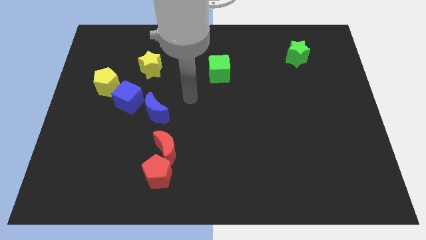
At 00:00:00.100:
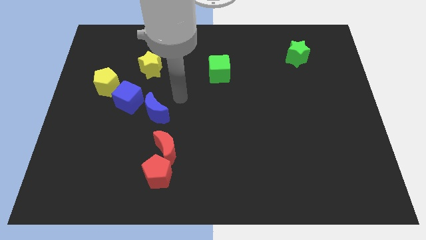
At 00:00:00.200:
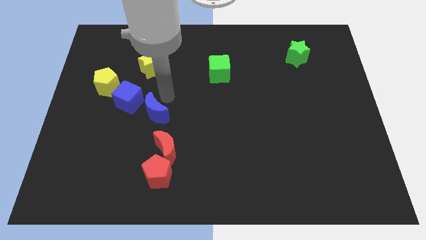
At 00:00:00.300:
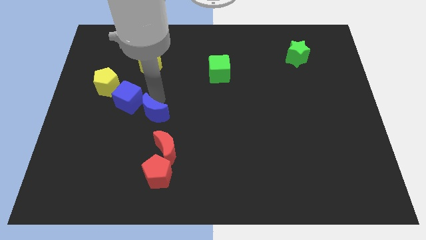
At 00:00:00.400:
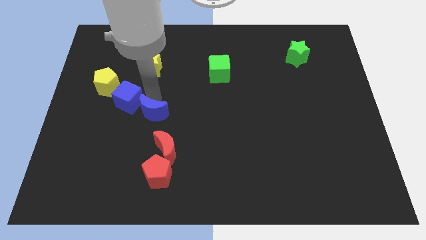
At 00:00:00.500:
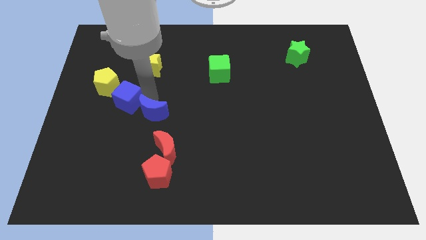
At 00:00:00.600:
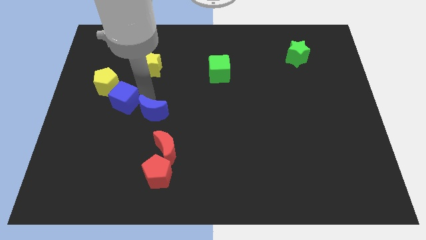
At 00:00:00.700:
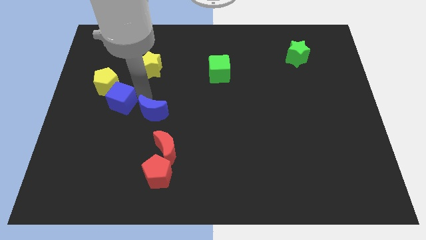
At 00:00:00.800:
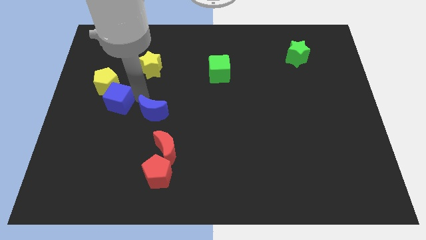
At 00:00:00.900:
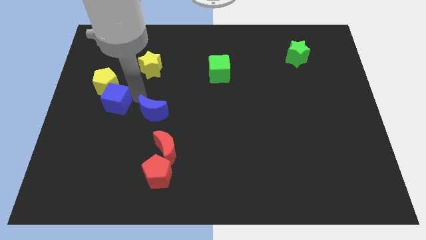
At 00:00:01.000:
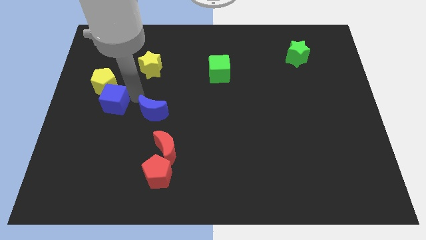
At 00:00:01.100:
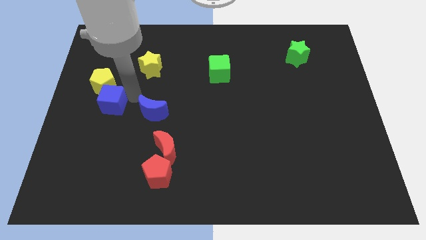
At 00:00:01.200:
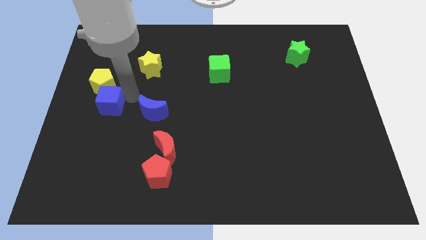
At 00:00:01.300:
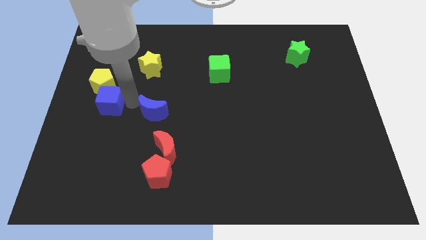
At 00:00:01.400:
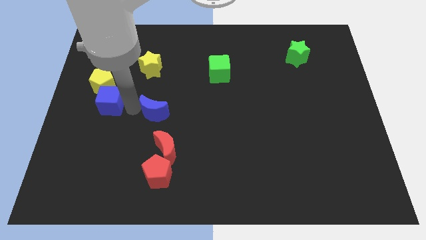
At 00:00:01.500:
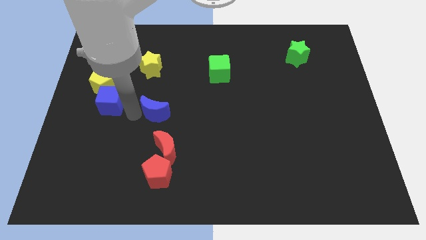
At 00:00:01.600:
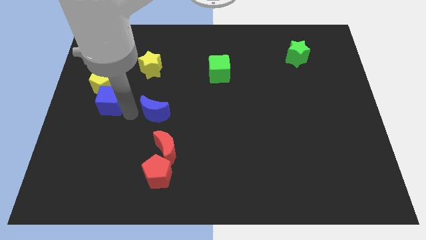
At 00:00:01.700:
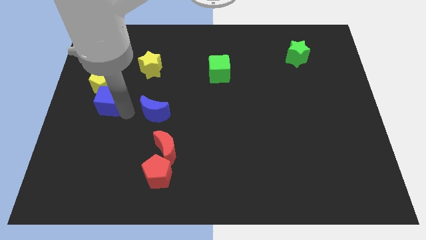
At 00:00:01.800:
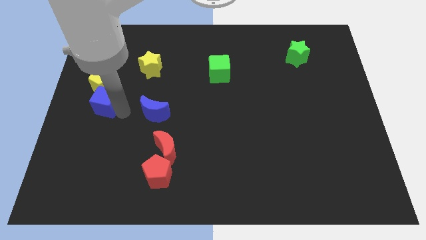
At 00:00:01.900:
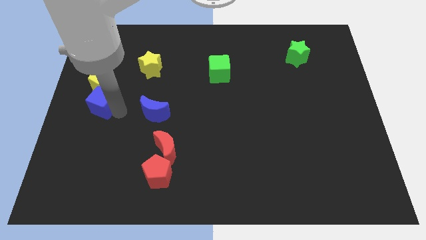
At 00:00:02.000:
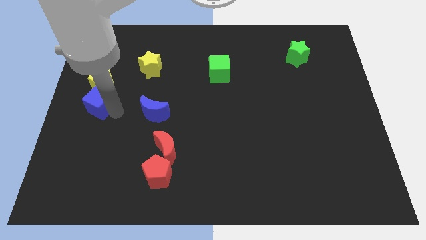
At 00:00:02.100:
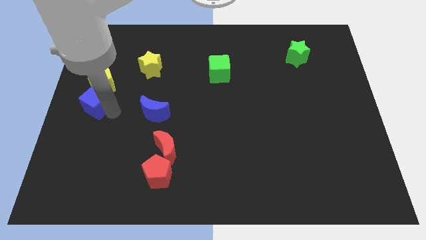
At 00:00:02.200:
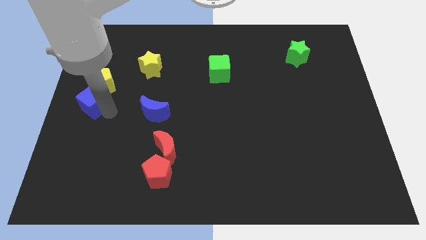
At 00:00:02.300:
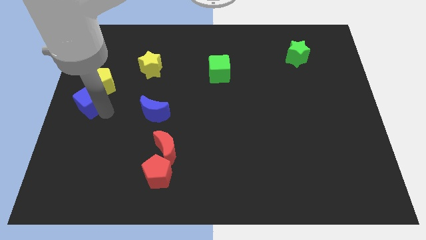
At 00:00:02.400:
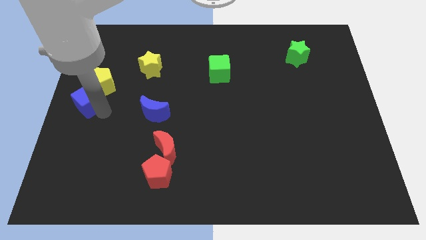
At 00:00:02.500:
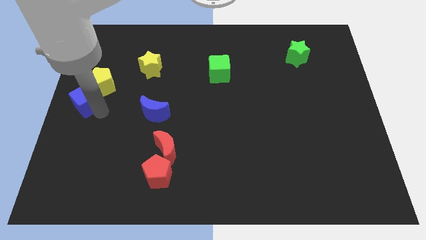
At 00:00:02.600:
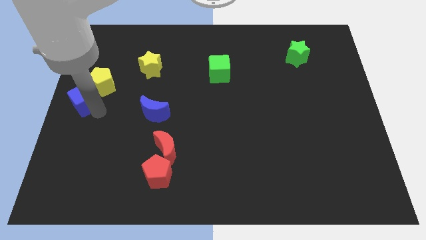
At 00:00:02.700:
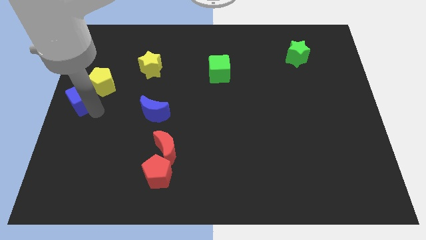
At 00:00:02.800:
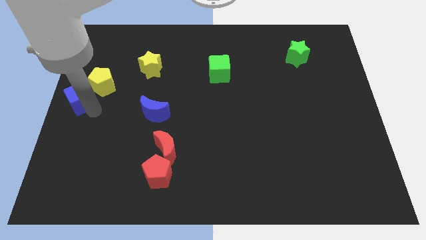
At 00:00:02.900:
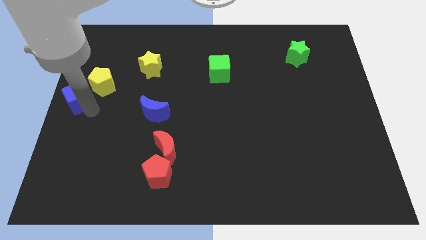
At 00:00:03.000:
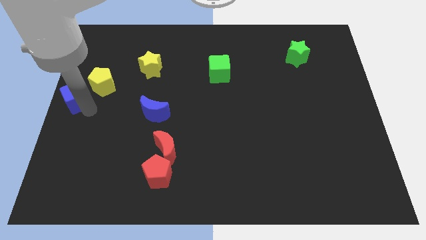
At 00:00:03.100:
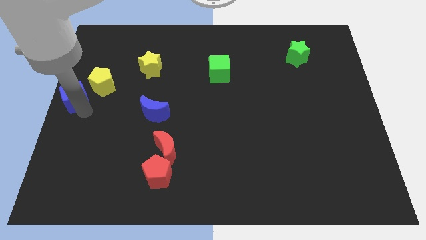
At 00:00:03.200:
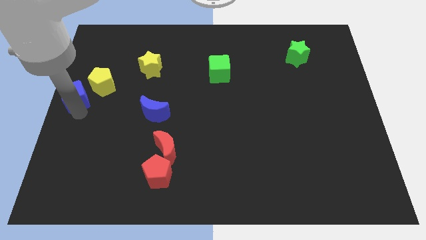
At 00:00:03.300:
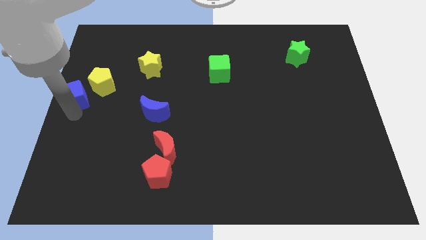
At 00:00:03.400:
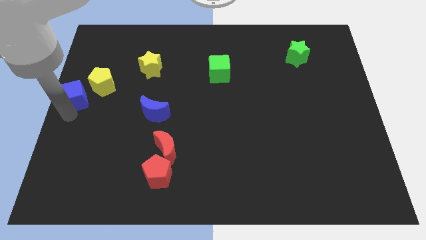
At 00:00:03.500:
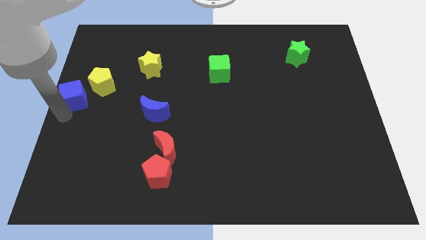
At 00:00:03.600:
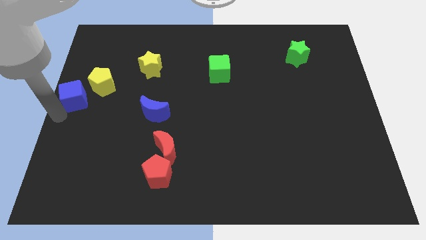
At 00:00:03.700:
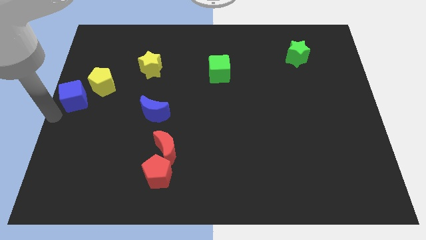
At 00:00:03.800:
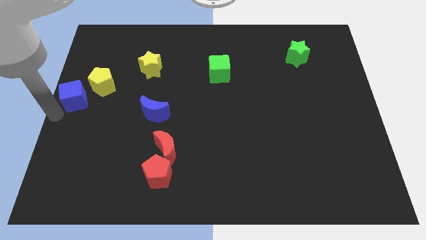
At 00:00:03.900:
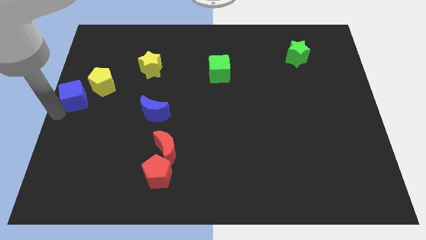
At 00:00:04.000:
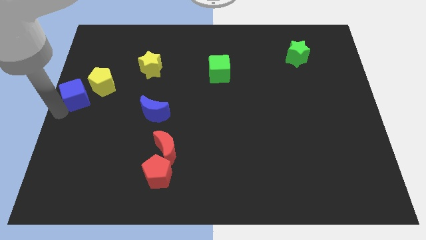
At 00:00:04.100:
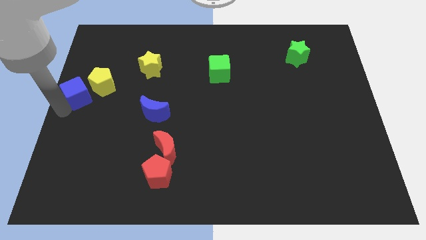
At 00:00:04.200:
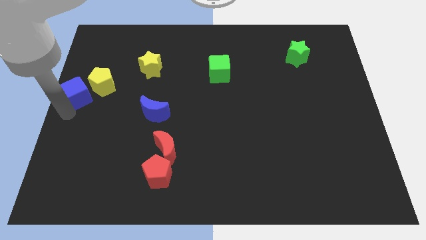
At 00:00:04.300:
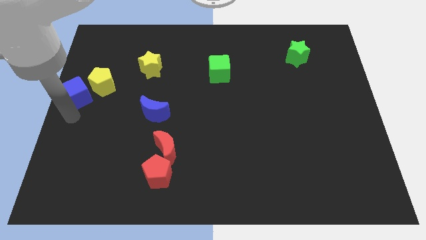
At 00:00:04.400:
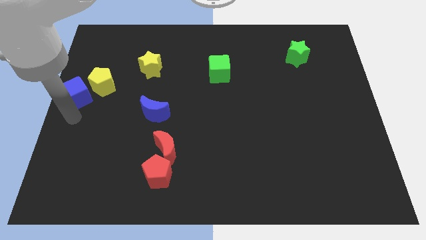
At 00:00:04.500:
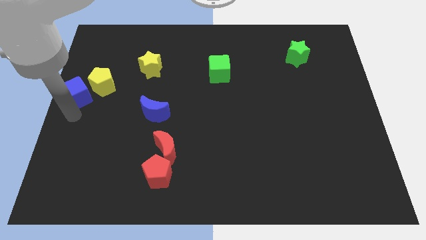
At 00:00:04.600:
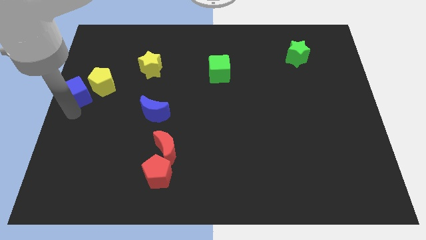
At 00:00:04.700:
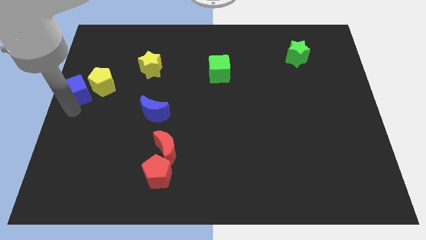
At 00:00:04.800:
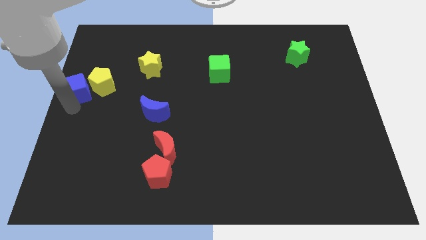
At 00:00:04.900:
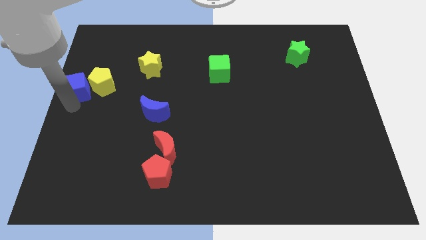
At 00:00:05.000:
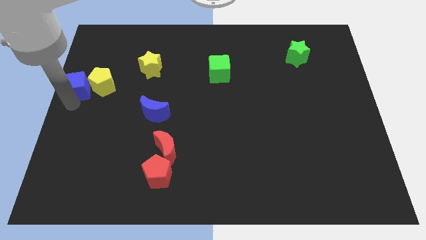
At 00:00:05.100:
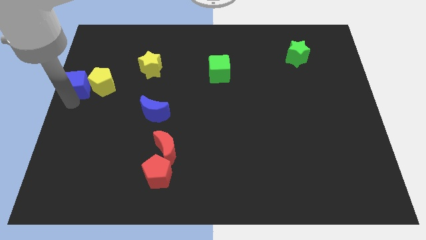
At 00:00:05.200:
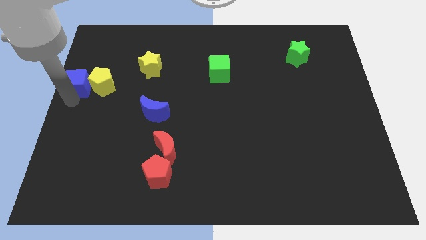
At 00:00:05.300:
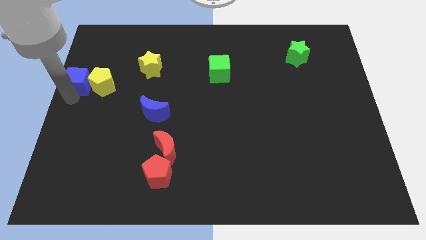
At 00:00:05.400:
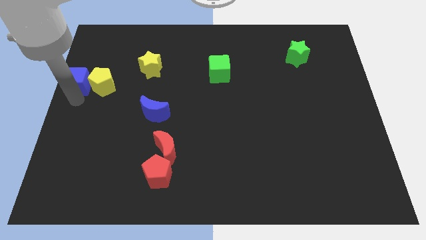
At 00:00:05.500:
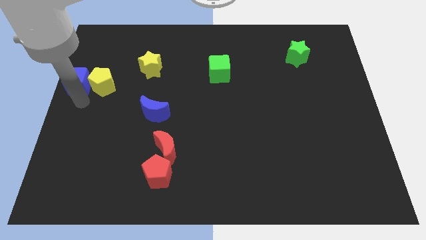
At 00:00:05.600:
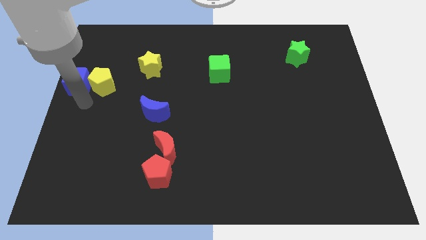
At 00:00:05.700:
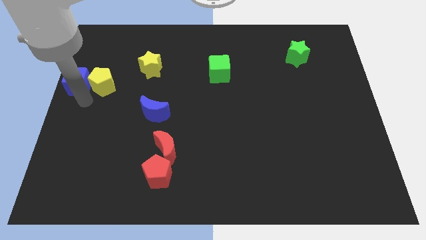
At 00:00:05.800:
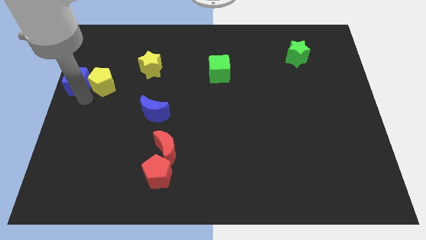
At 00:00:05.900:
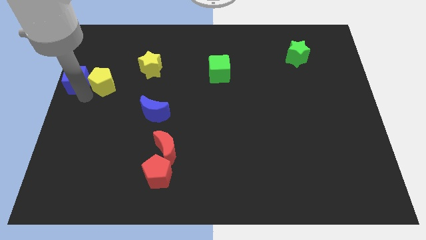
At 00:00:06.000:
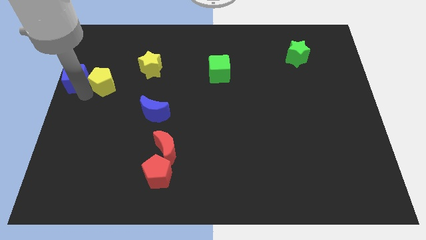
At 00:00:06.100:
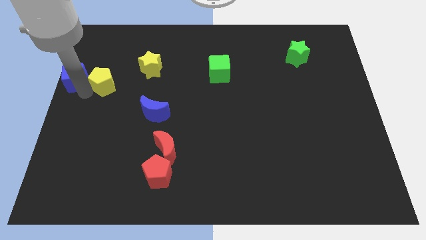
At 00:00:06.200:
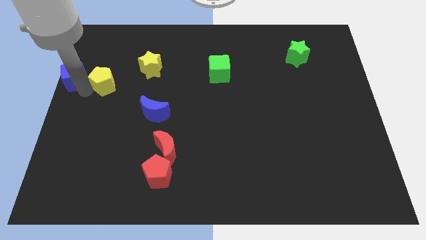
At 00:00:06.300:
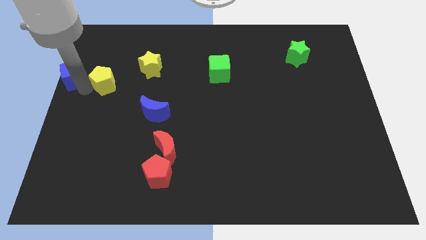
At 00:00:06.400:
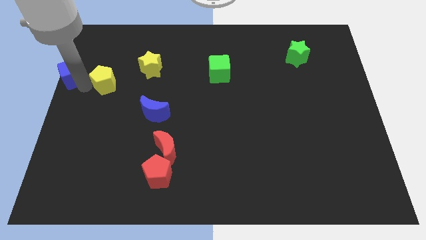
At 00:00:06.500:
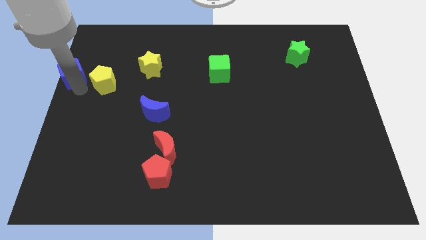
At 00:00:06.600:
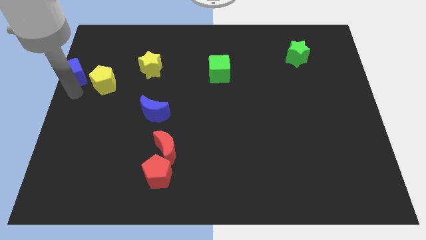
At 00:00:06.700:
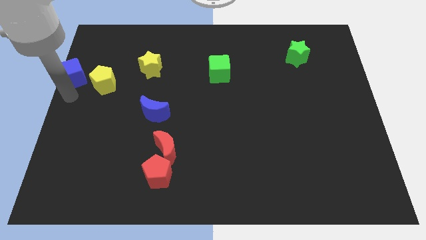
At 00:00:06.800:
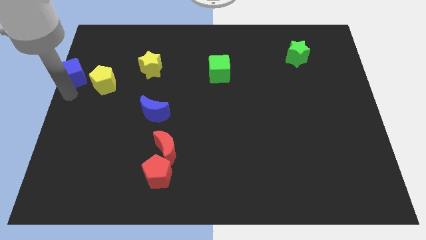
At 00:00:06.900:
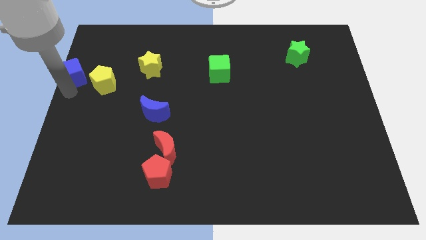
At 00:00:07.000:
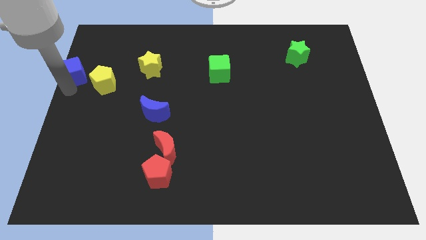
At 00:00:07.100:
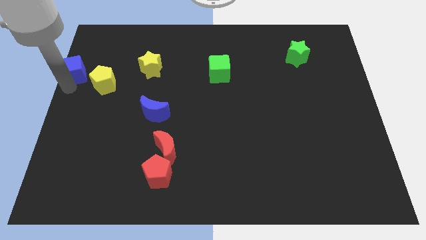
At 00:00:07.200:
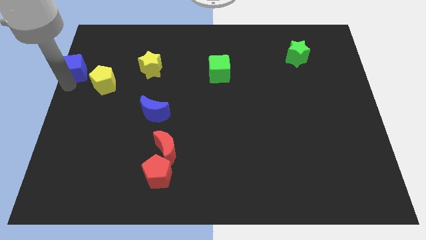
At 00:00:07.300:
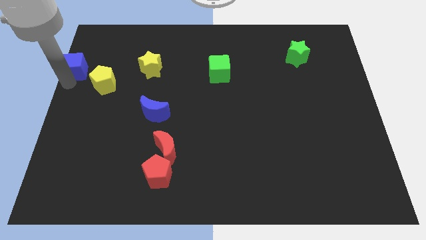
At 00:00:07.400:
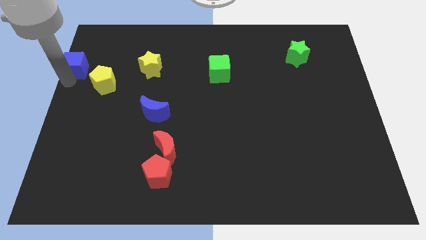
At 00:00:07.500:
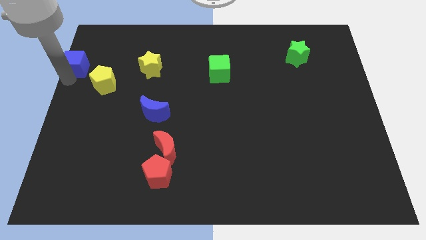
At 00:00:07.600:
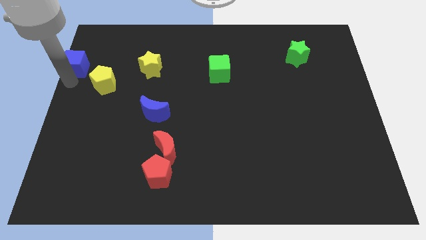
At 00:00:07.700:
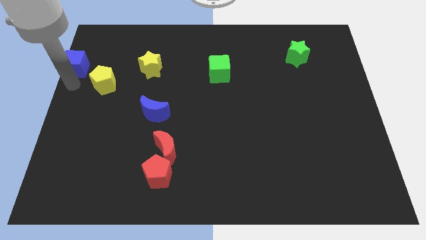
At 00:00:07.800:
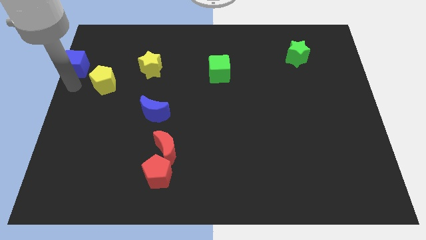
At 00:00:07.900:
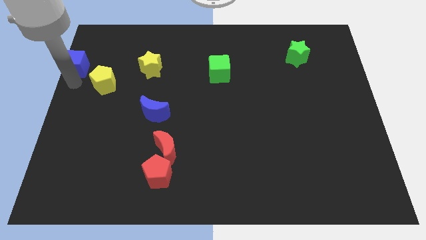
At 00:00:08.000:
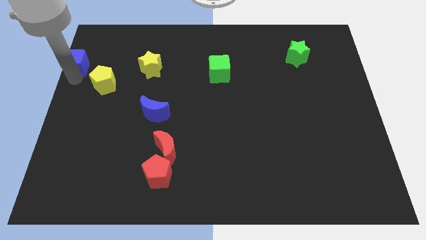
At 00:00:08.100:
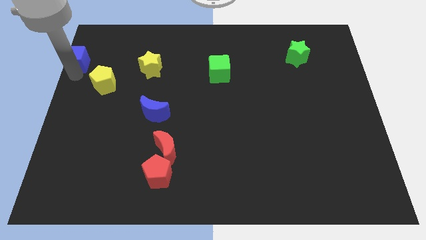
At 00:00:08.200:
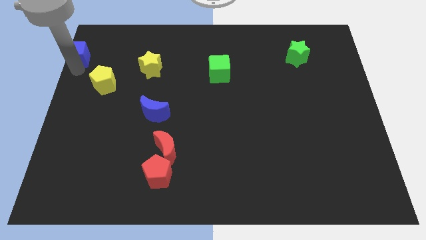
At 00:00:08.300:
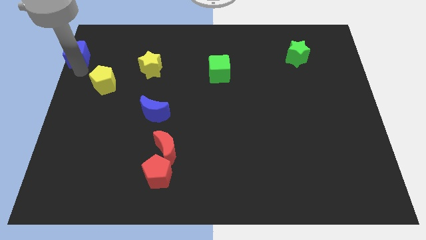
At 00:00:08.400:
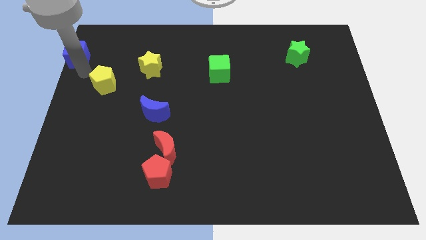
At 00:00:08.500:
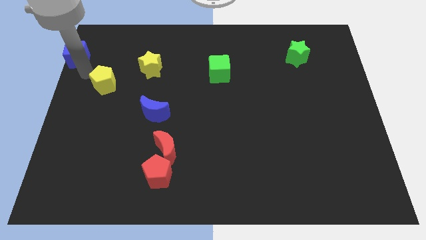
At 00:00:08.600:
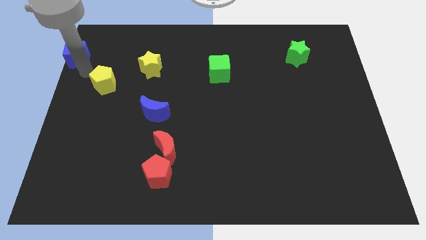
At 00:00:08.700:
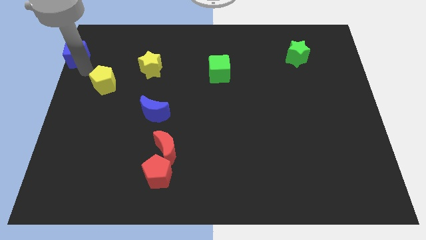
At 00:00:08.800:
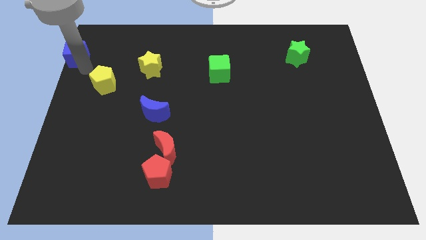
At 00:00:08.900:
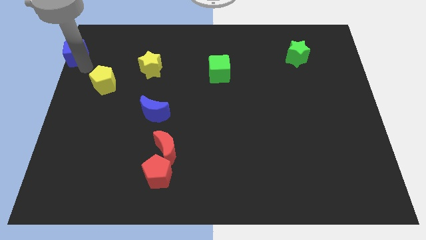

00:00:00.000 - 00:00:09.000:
move the blue cube to the upper left corner
